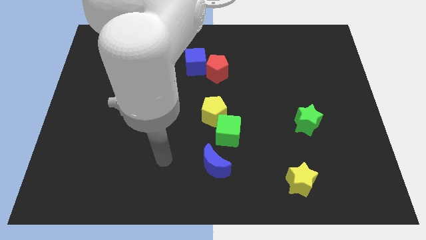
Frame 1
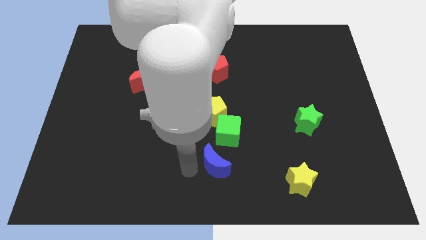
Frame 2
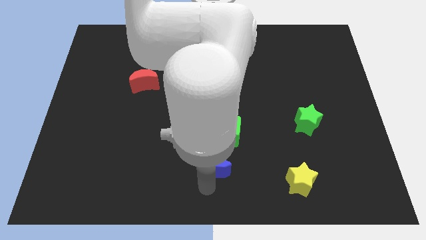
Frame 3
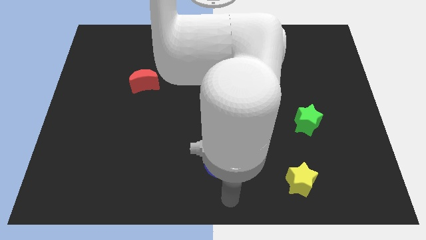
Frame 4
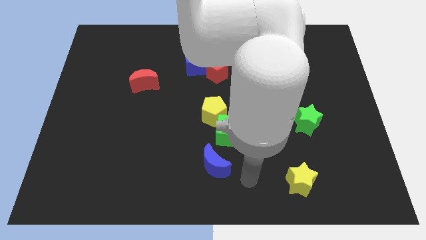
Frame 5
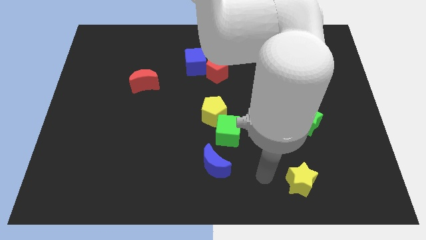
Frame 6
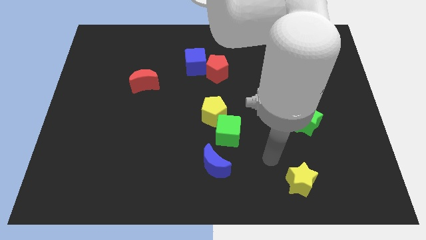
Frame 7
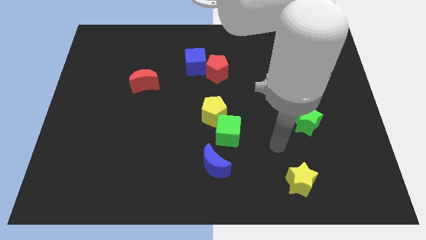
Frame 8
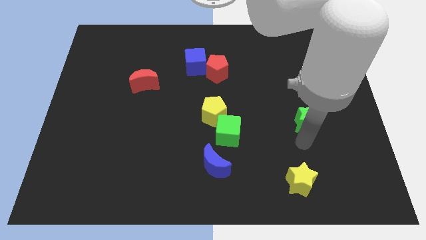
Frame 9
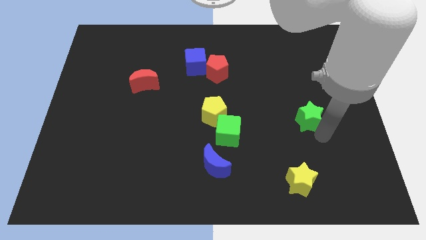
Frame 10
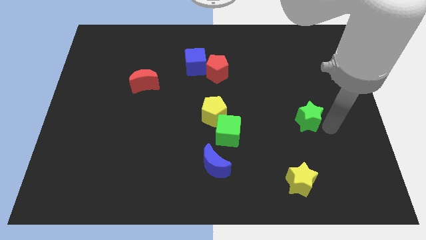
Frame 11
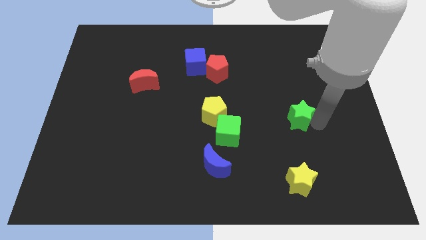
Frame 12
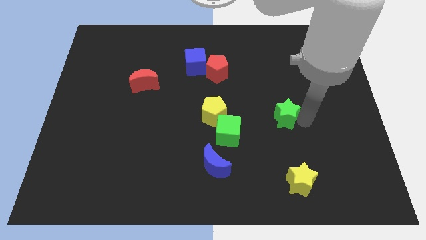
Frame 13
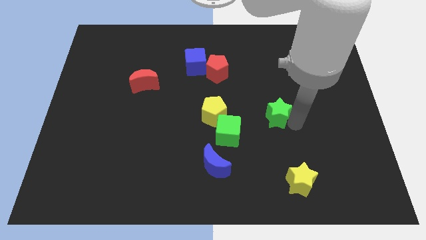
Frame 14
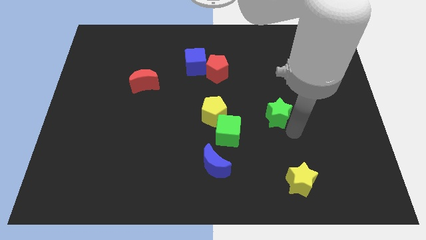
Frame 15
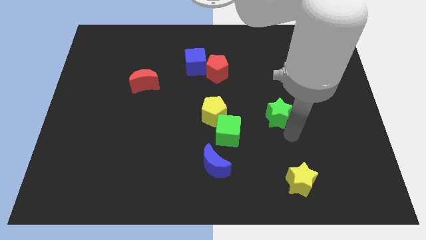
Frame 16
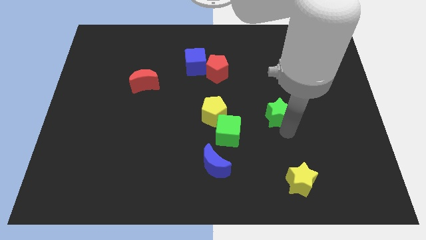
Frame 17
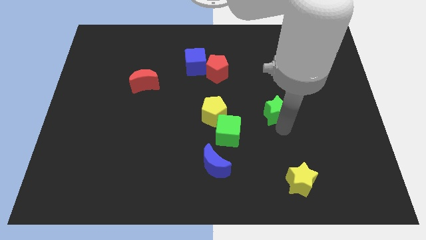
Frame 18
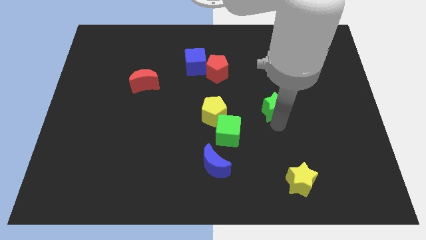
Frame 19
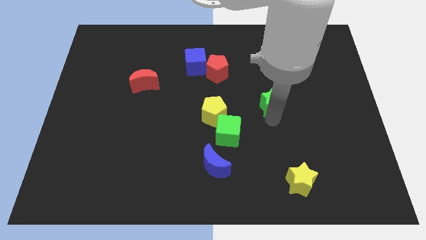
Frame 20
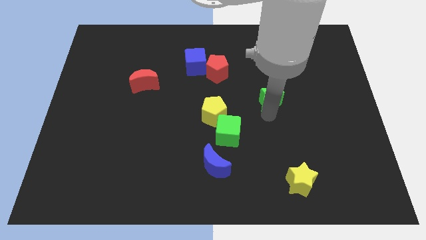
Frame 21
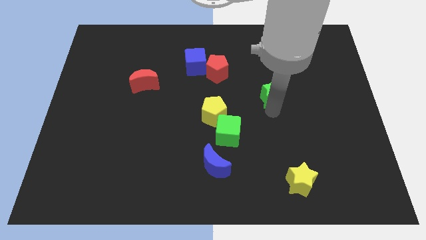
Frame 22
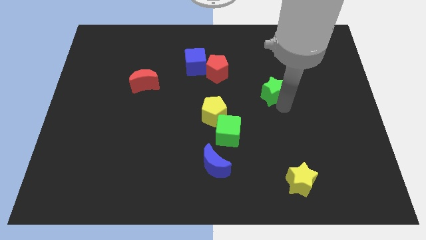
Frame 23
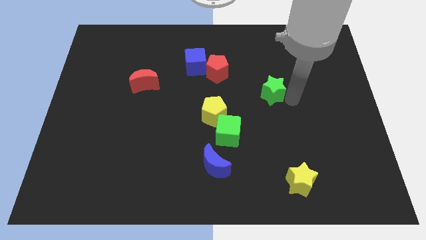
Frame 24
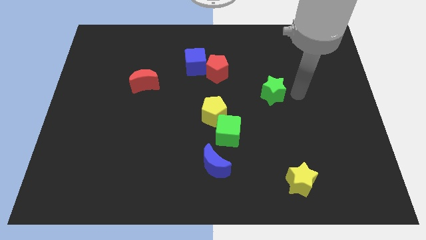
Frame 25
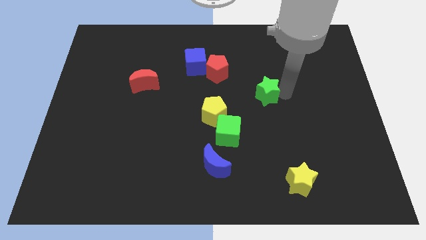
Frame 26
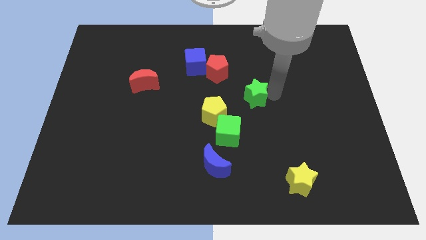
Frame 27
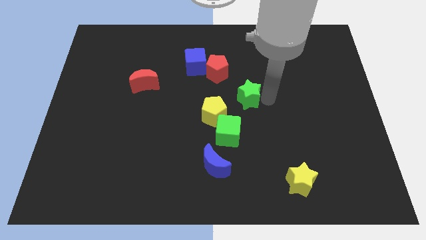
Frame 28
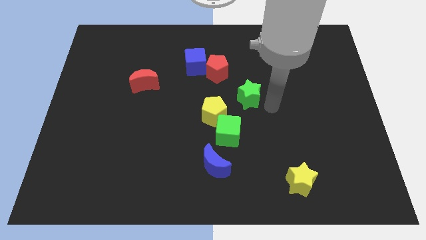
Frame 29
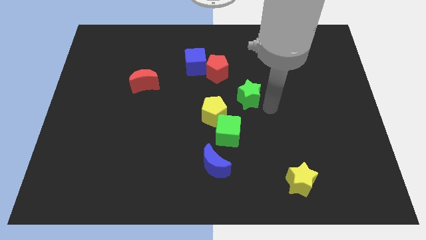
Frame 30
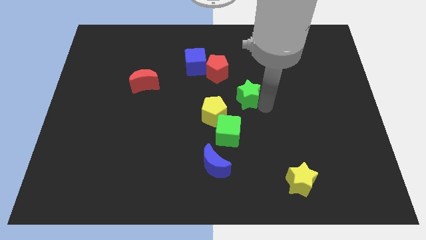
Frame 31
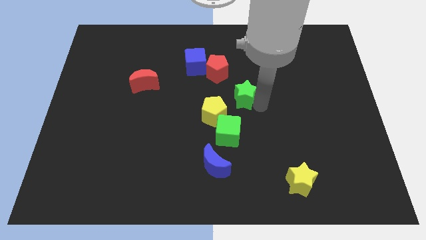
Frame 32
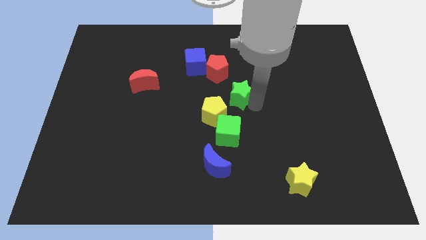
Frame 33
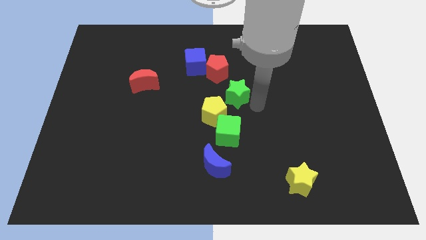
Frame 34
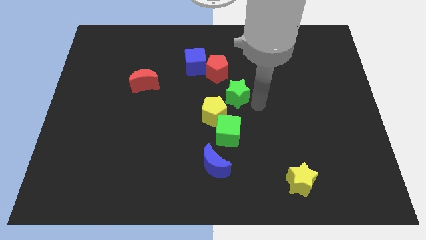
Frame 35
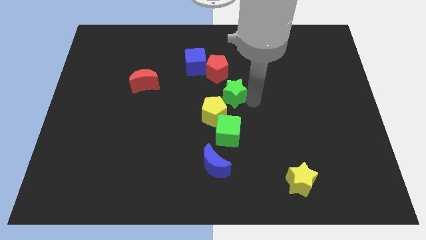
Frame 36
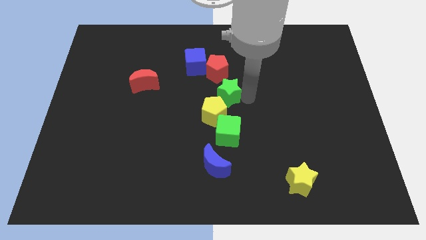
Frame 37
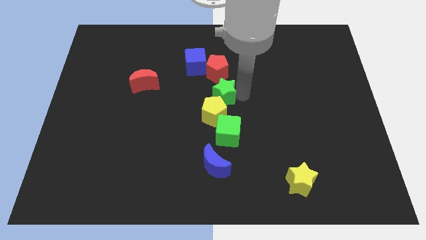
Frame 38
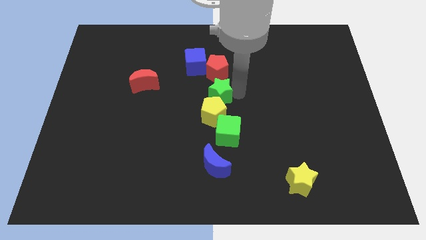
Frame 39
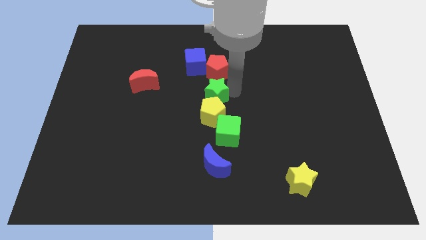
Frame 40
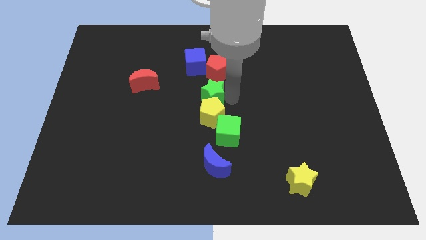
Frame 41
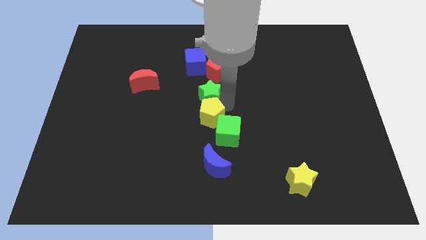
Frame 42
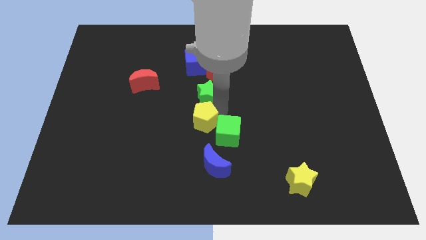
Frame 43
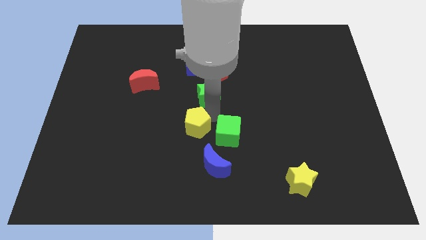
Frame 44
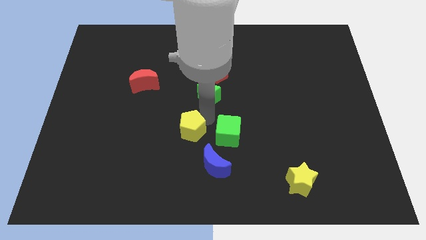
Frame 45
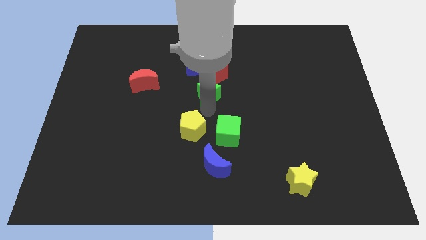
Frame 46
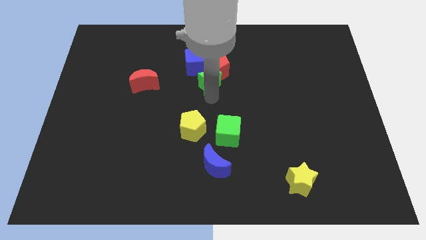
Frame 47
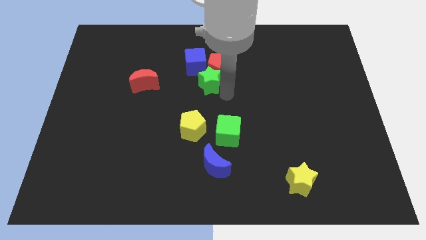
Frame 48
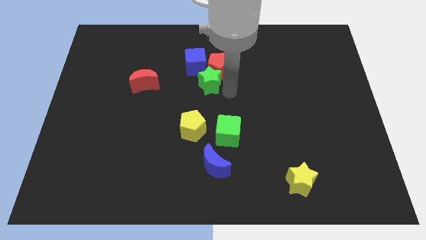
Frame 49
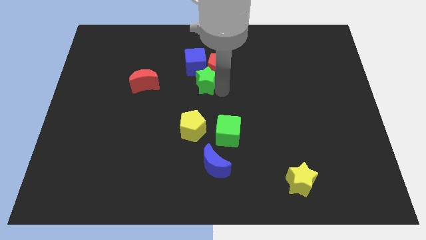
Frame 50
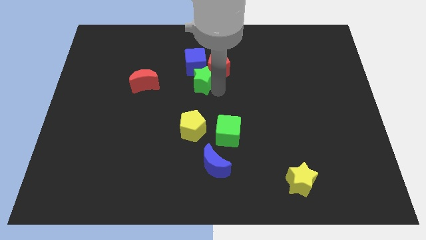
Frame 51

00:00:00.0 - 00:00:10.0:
move the green star to the left of the red pentagon

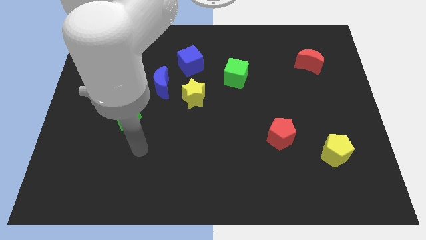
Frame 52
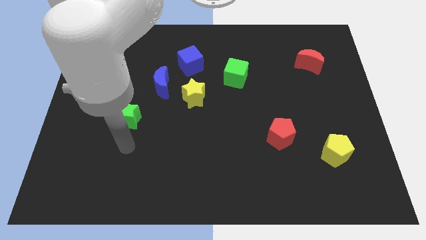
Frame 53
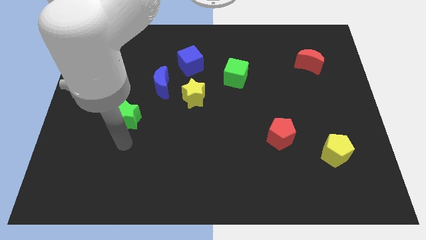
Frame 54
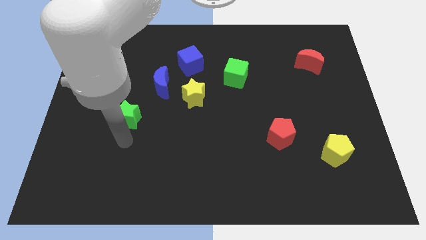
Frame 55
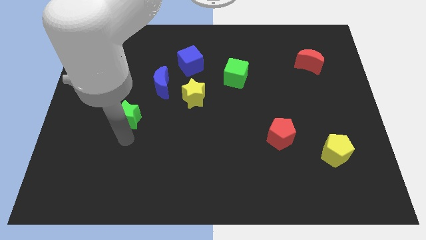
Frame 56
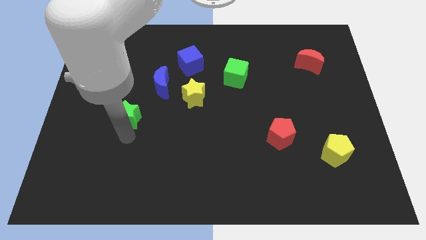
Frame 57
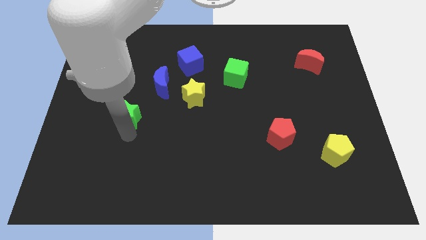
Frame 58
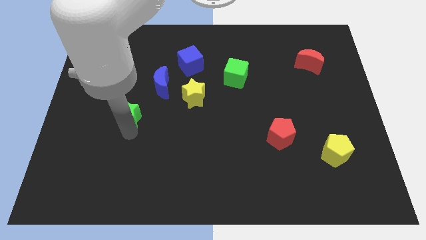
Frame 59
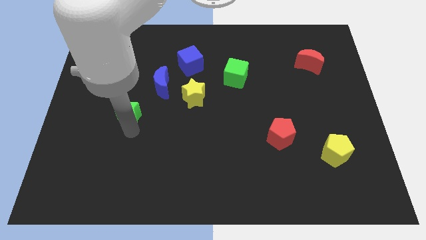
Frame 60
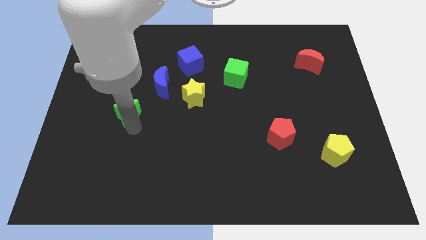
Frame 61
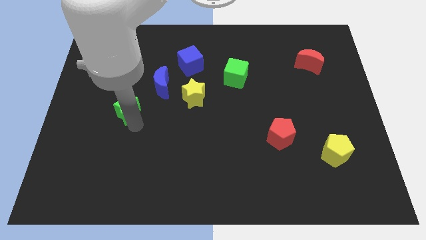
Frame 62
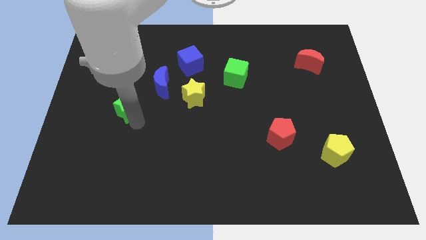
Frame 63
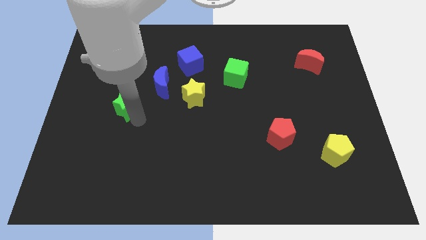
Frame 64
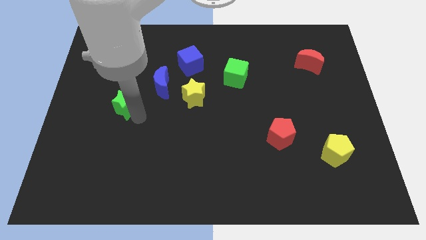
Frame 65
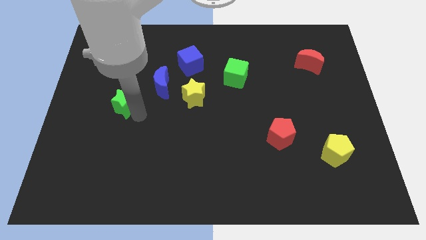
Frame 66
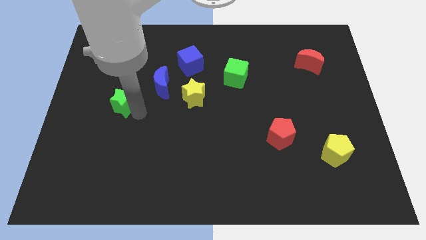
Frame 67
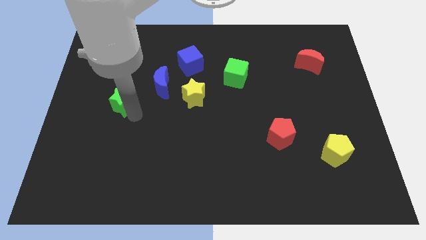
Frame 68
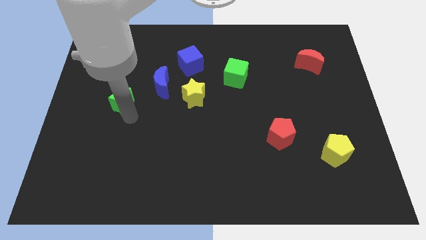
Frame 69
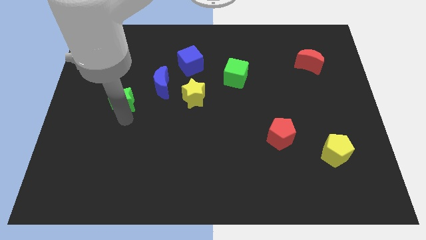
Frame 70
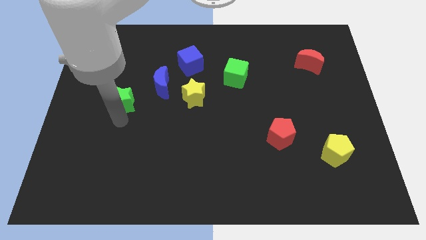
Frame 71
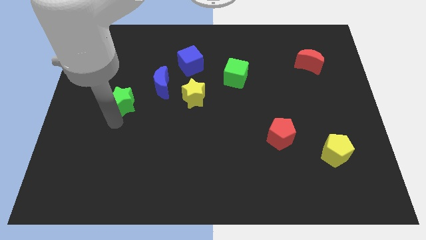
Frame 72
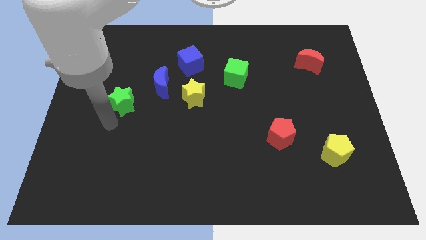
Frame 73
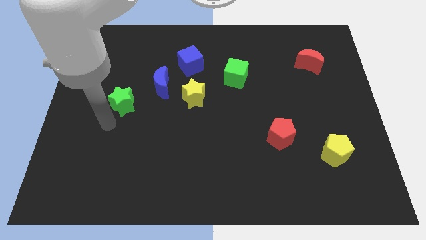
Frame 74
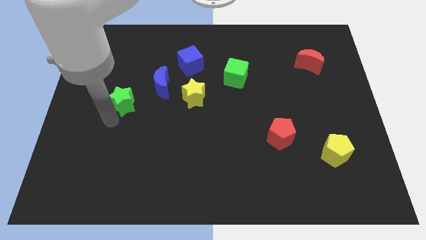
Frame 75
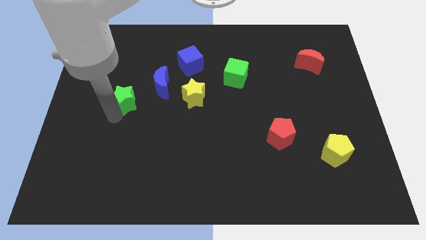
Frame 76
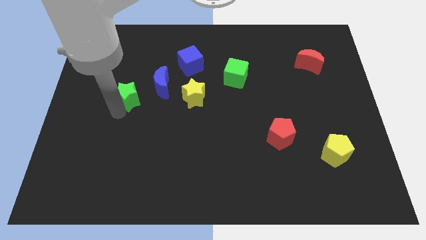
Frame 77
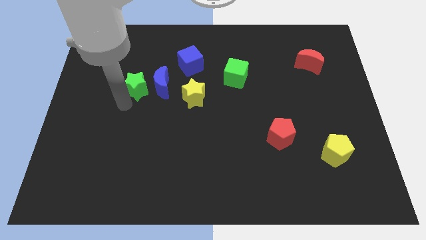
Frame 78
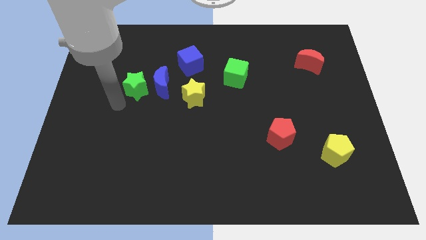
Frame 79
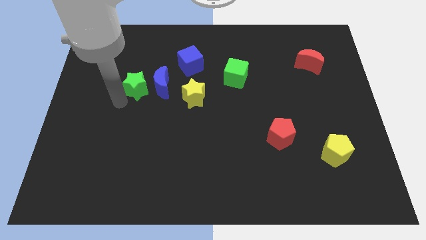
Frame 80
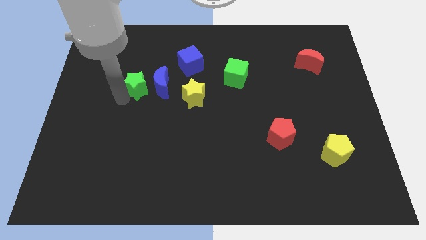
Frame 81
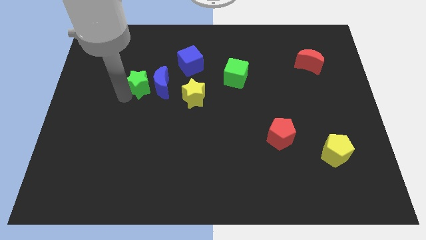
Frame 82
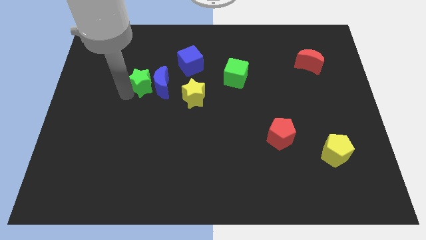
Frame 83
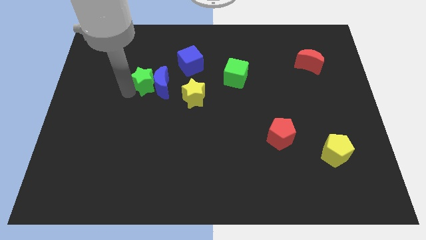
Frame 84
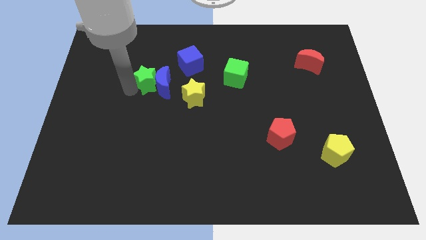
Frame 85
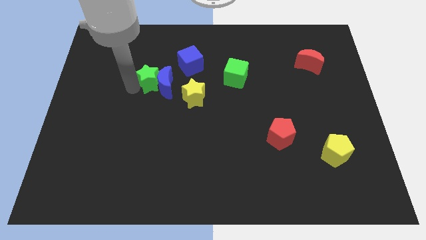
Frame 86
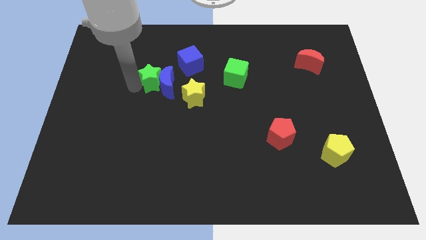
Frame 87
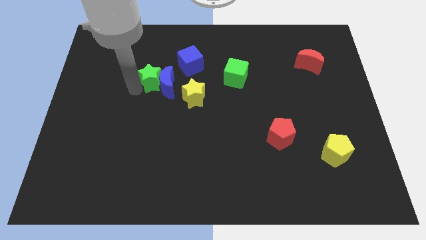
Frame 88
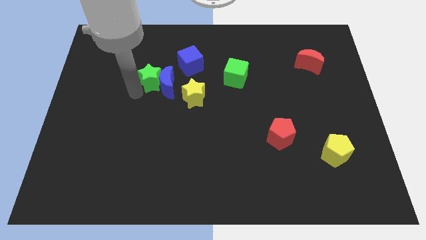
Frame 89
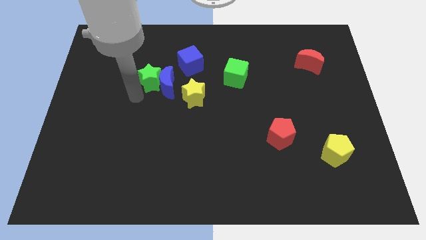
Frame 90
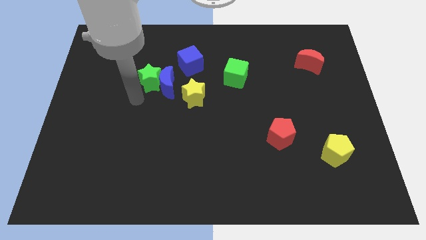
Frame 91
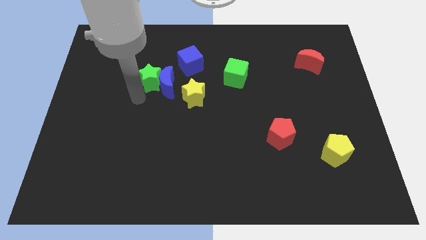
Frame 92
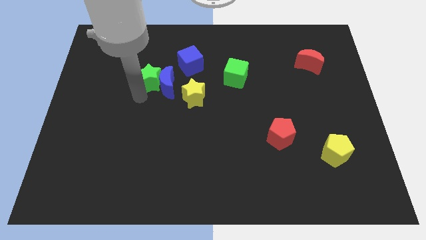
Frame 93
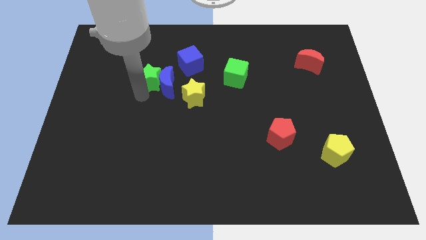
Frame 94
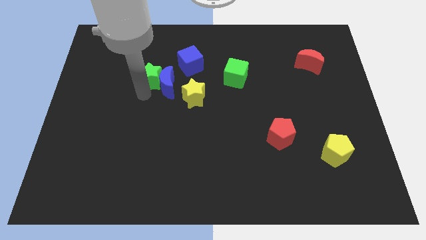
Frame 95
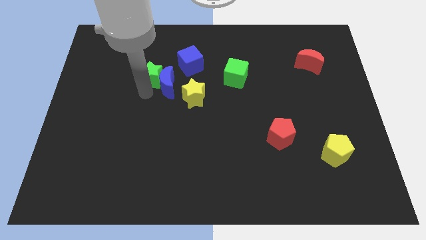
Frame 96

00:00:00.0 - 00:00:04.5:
put the green star to the top side of the blue moon
